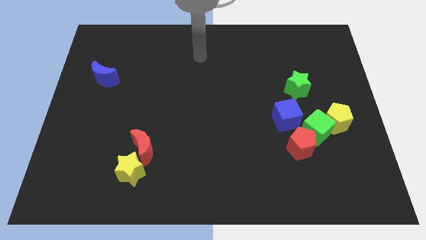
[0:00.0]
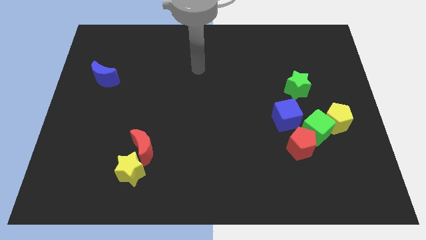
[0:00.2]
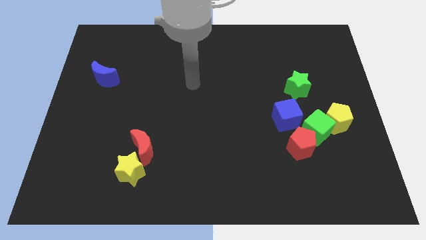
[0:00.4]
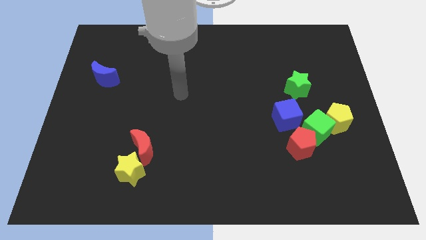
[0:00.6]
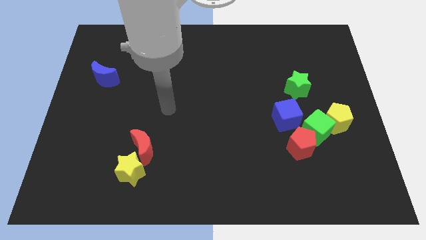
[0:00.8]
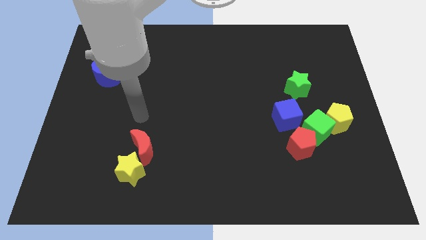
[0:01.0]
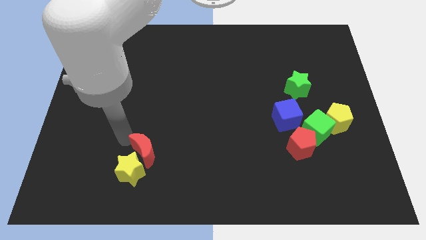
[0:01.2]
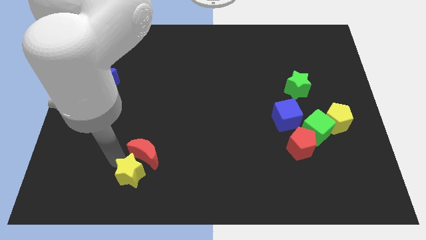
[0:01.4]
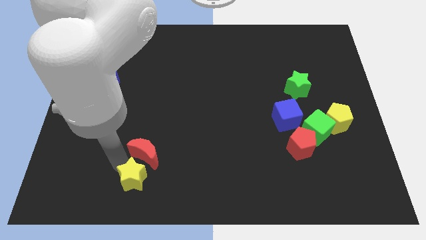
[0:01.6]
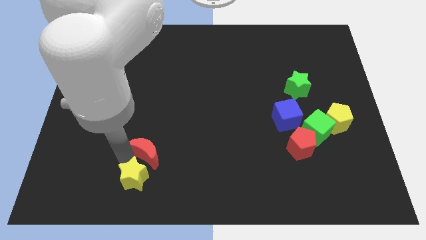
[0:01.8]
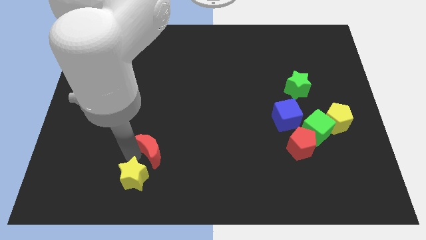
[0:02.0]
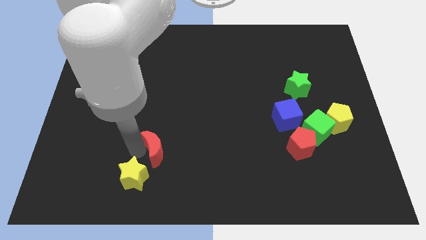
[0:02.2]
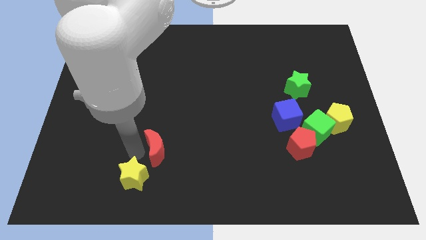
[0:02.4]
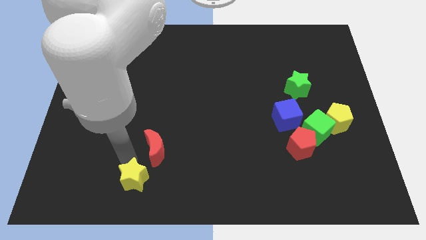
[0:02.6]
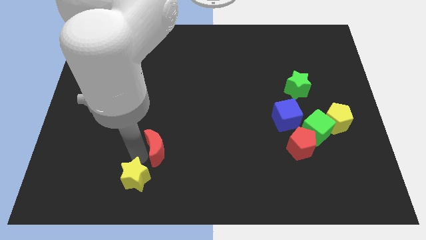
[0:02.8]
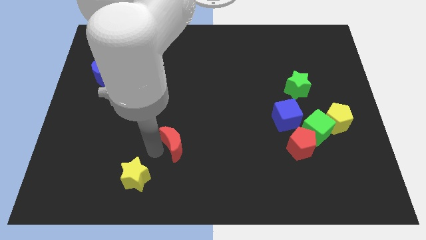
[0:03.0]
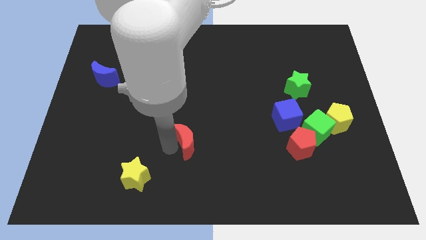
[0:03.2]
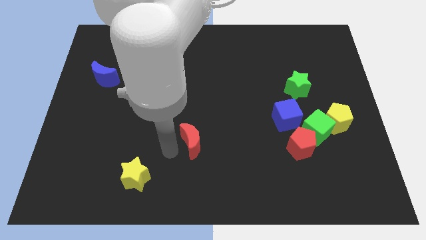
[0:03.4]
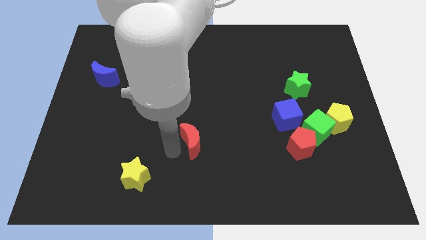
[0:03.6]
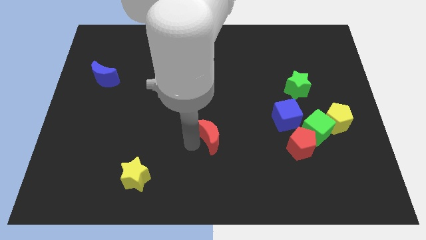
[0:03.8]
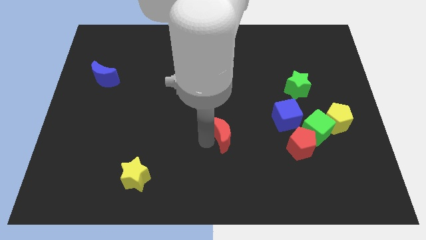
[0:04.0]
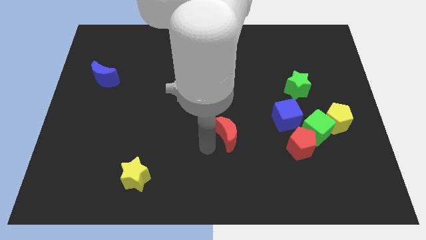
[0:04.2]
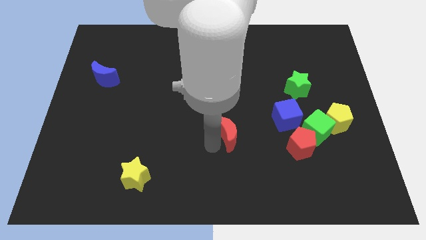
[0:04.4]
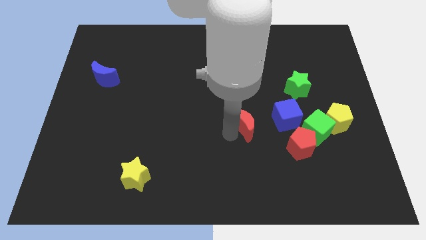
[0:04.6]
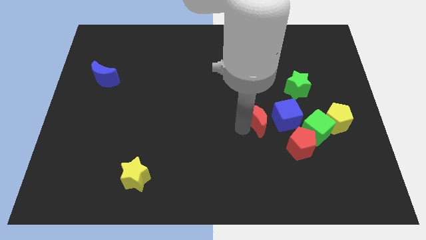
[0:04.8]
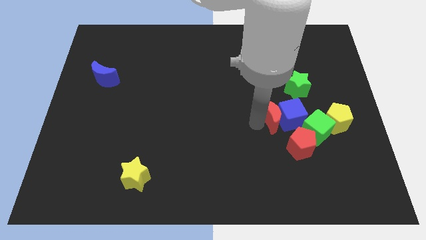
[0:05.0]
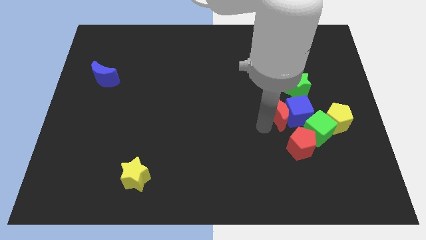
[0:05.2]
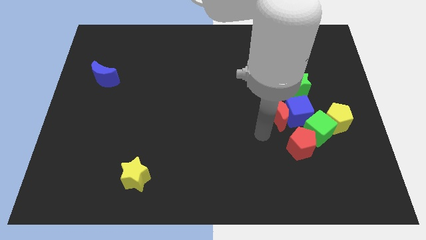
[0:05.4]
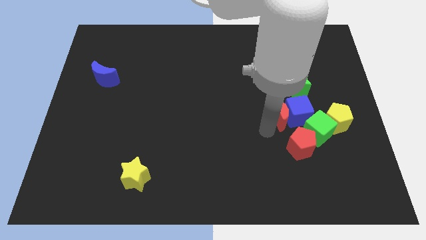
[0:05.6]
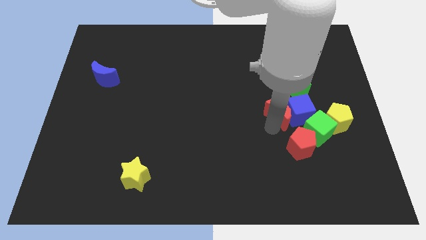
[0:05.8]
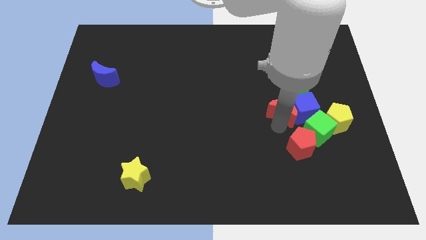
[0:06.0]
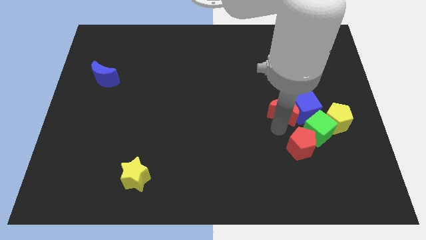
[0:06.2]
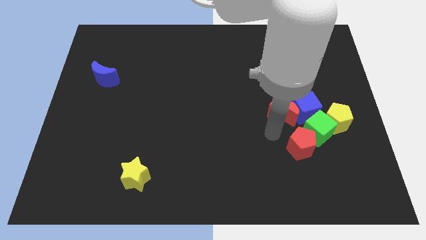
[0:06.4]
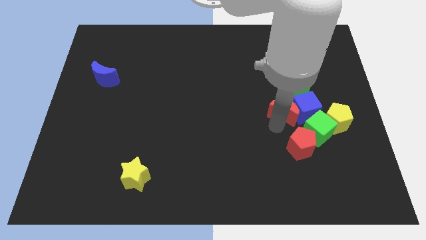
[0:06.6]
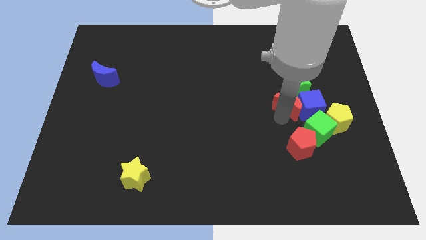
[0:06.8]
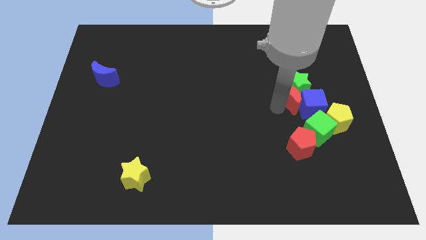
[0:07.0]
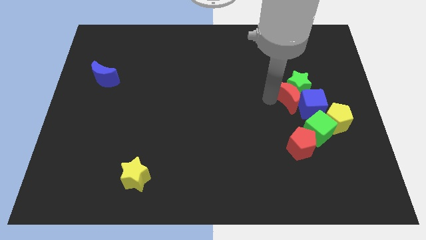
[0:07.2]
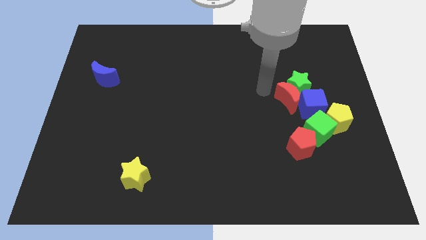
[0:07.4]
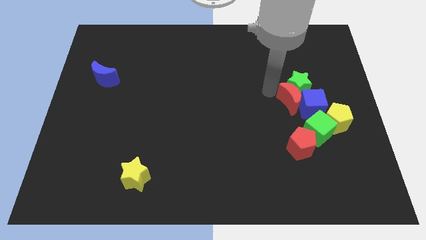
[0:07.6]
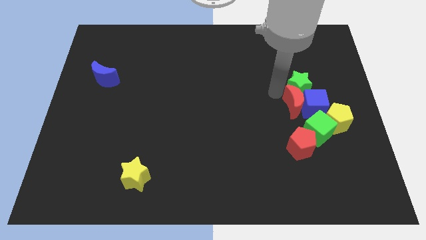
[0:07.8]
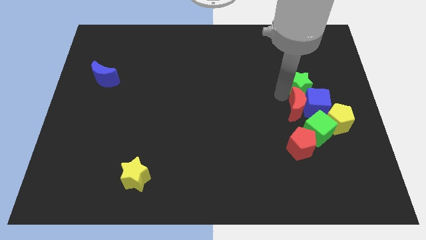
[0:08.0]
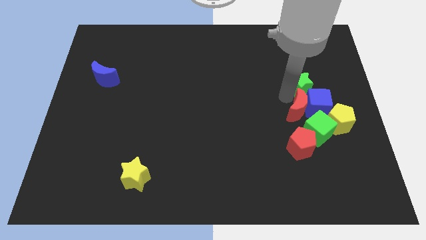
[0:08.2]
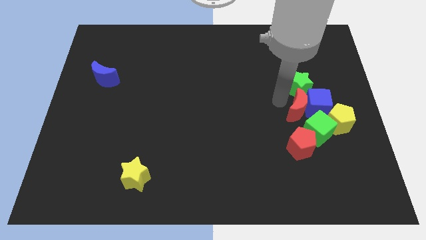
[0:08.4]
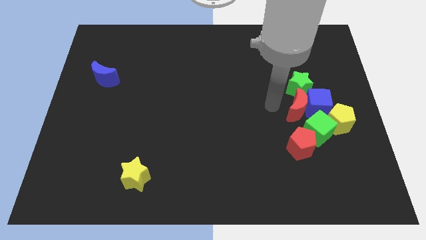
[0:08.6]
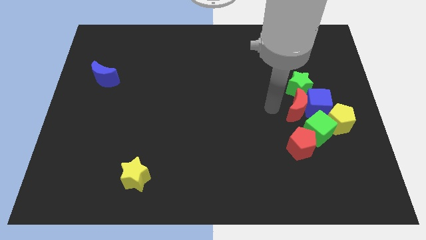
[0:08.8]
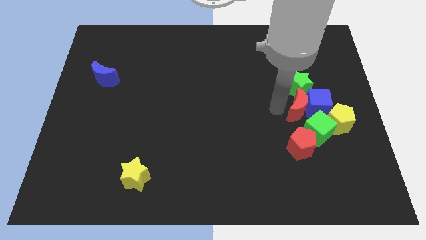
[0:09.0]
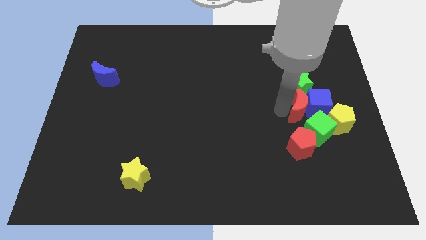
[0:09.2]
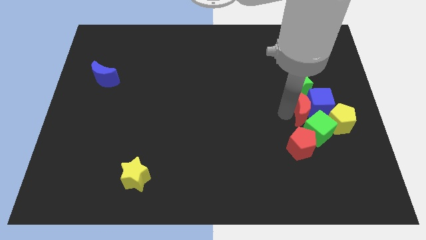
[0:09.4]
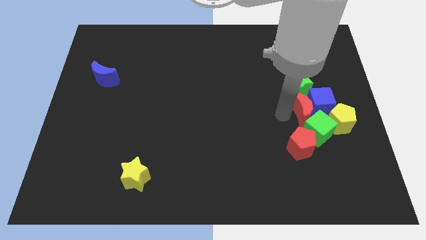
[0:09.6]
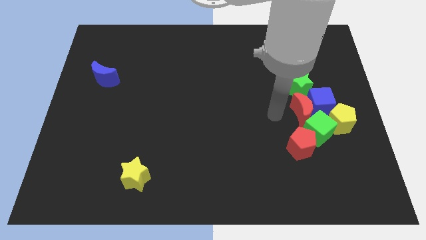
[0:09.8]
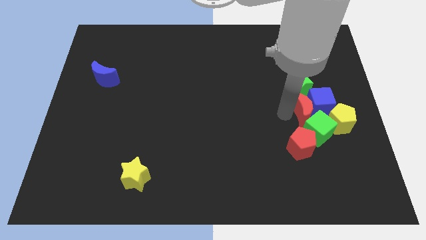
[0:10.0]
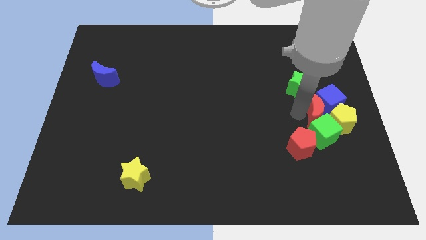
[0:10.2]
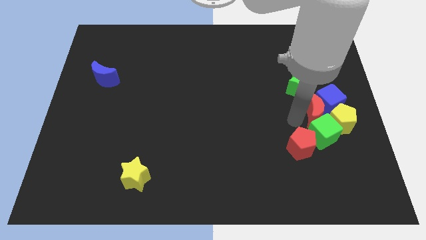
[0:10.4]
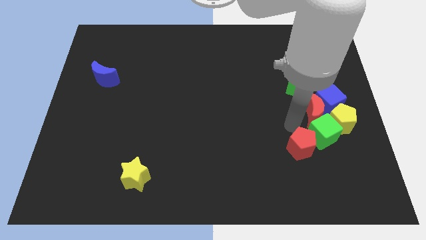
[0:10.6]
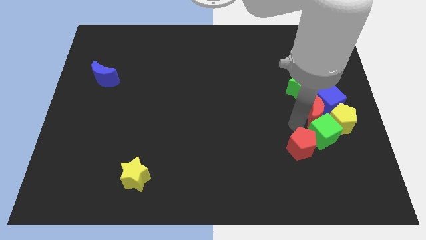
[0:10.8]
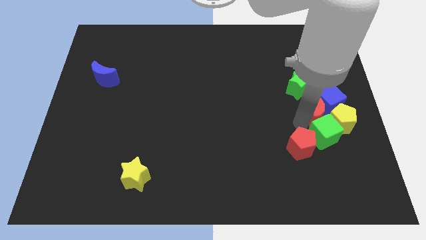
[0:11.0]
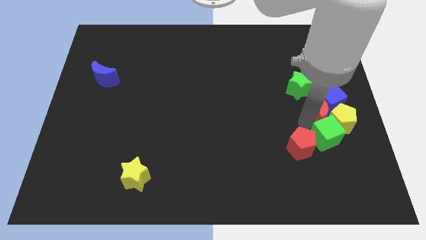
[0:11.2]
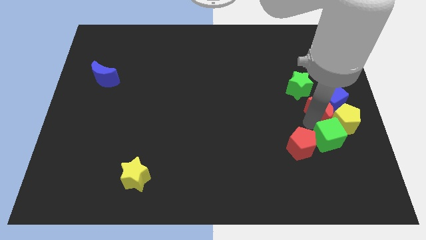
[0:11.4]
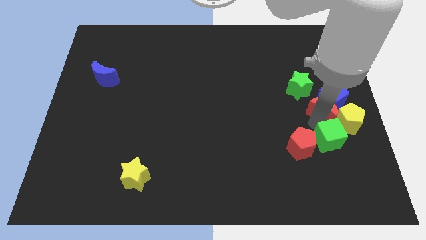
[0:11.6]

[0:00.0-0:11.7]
move the red moon to the right side
